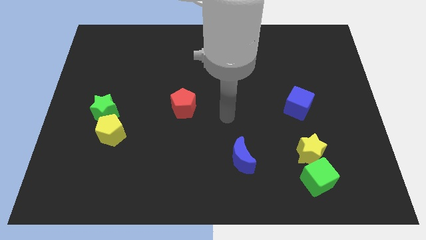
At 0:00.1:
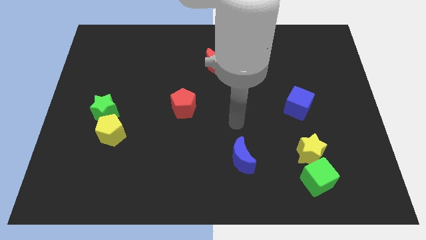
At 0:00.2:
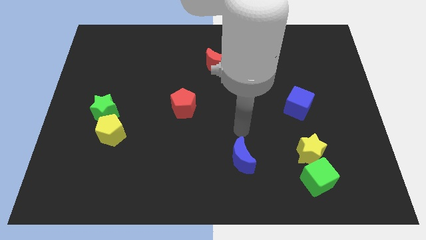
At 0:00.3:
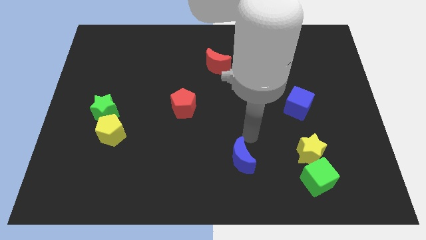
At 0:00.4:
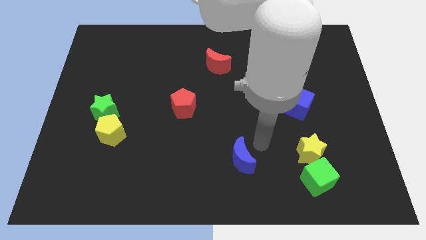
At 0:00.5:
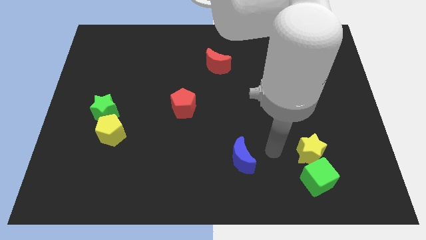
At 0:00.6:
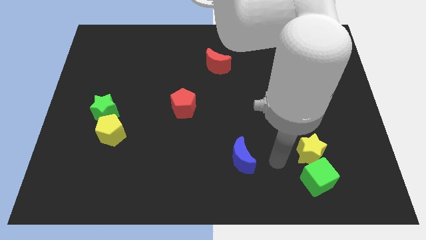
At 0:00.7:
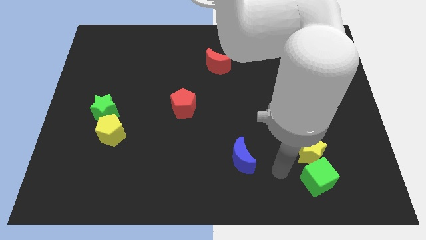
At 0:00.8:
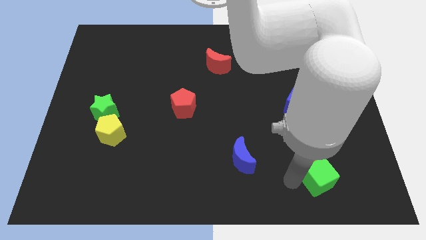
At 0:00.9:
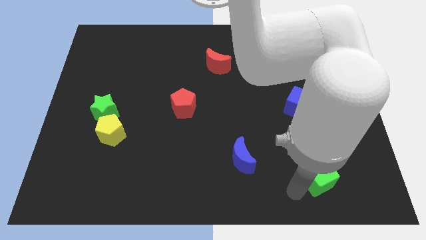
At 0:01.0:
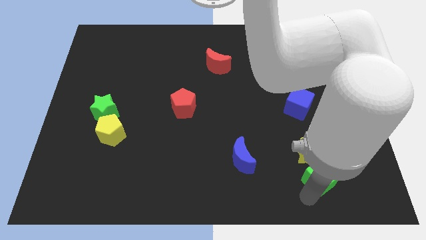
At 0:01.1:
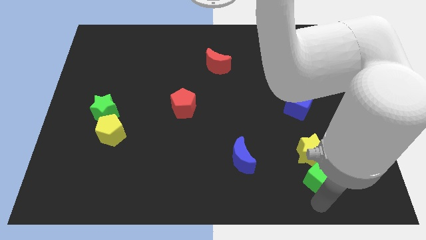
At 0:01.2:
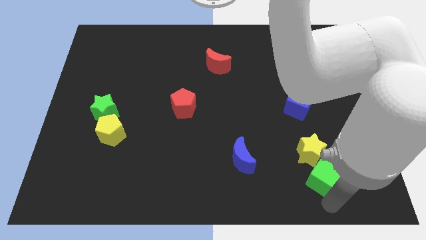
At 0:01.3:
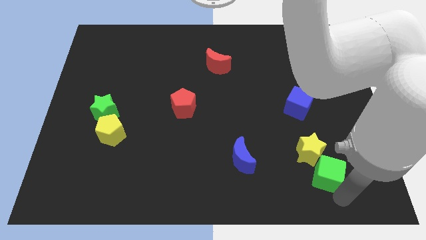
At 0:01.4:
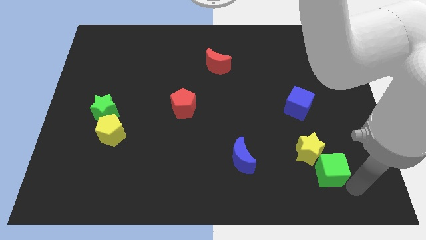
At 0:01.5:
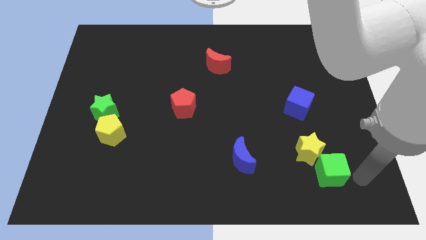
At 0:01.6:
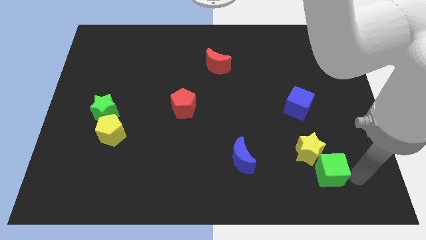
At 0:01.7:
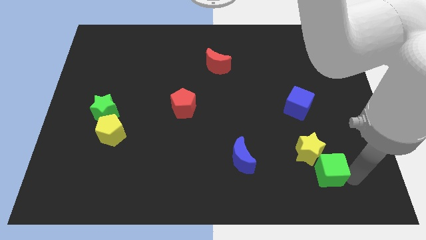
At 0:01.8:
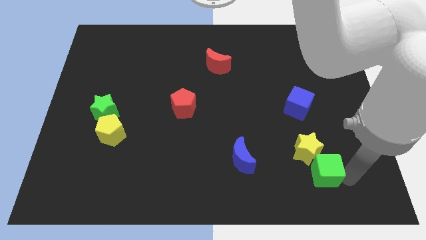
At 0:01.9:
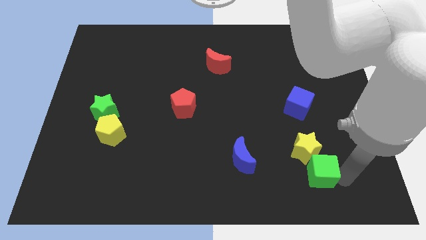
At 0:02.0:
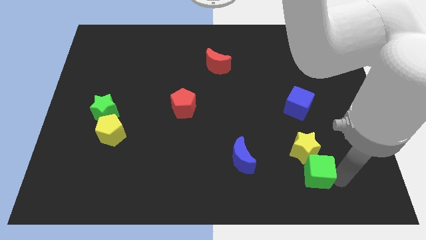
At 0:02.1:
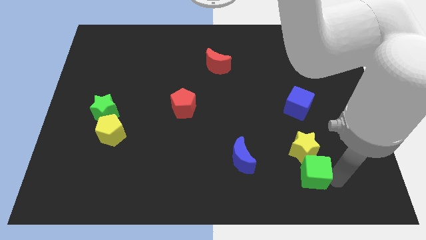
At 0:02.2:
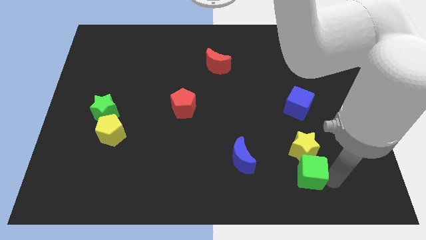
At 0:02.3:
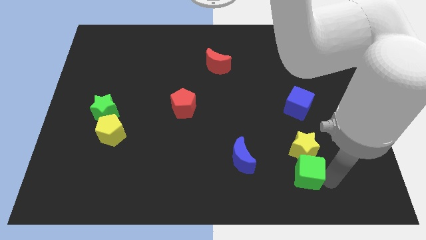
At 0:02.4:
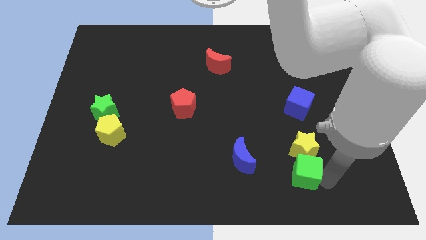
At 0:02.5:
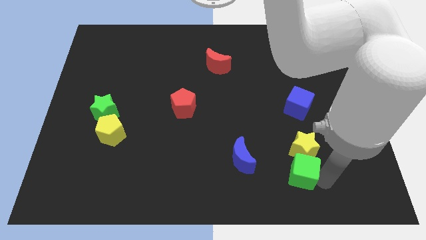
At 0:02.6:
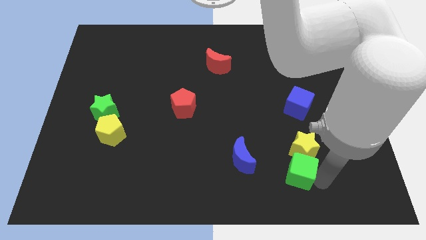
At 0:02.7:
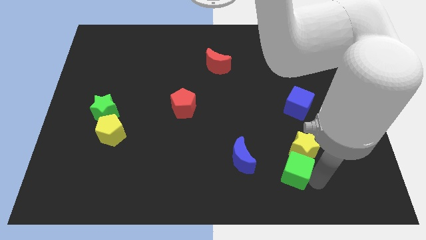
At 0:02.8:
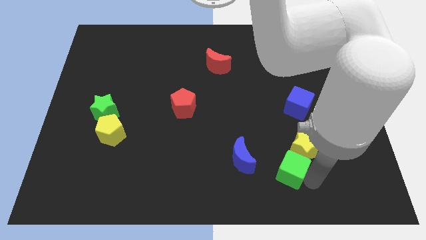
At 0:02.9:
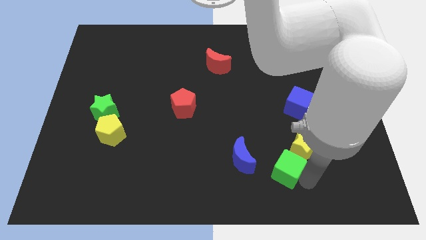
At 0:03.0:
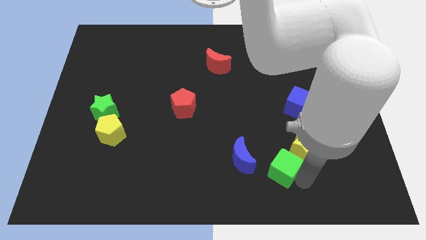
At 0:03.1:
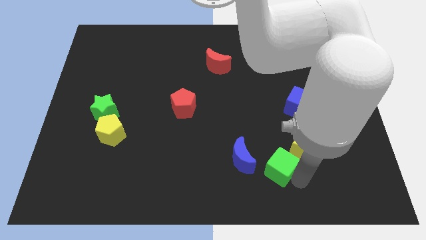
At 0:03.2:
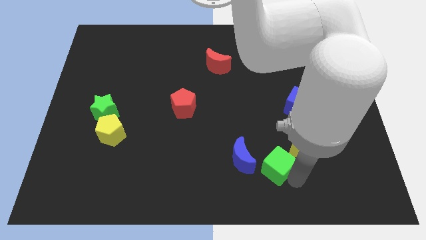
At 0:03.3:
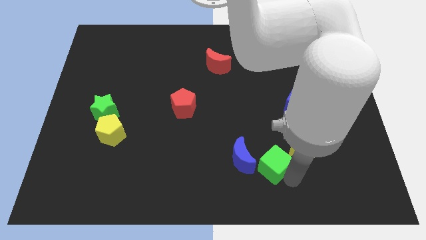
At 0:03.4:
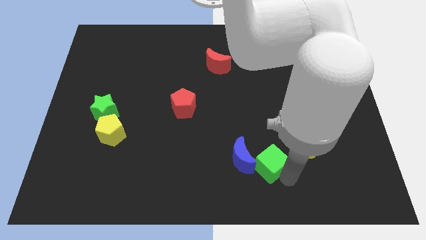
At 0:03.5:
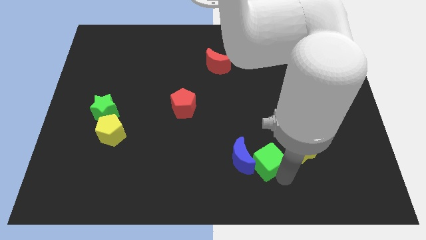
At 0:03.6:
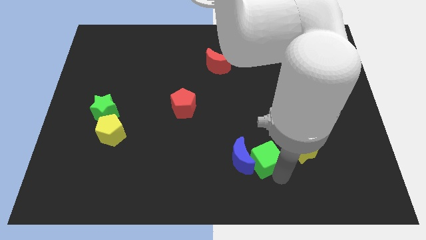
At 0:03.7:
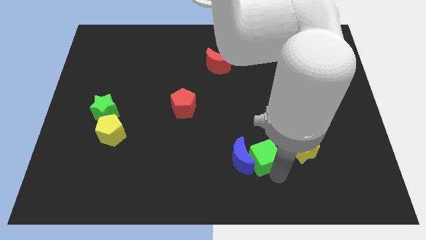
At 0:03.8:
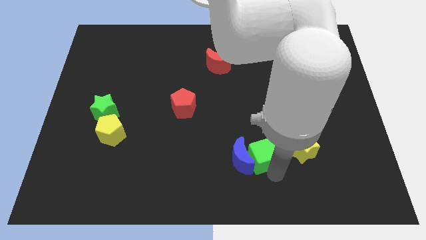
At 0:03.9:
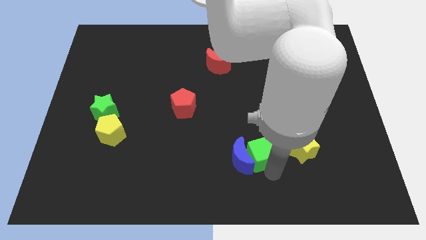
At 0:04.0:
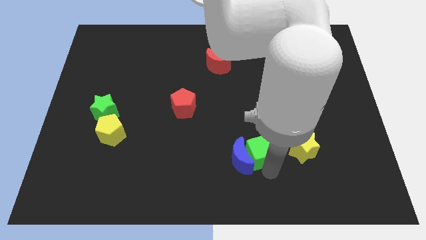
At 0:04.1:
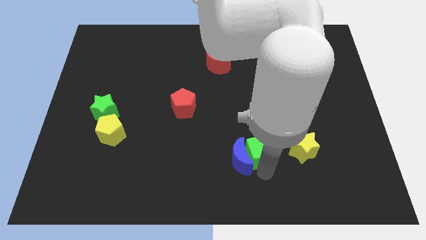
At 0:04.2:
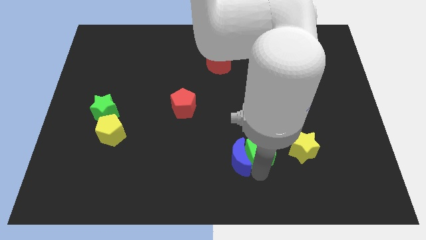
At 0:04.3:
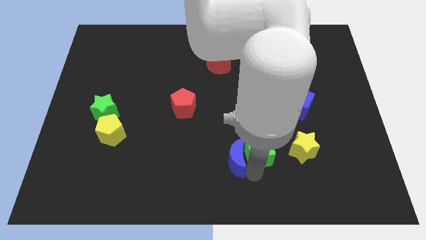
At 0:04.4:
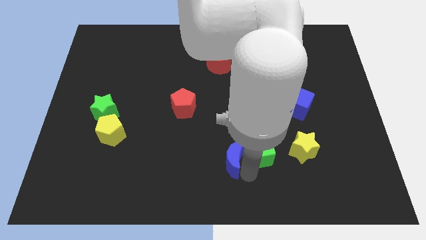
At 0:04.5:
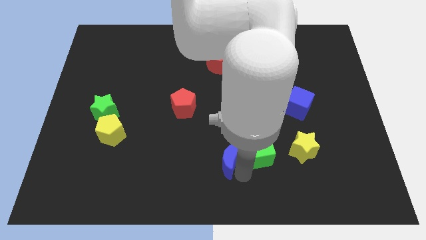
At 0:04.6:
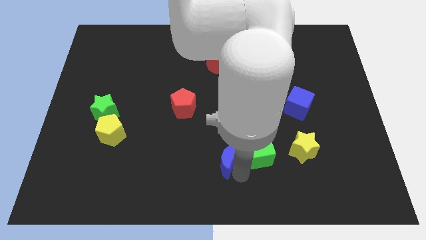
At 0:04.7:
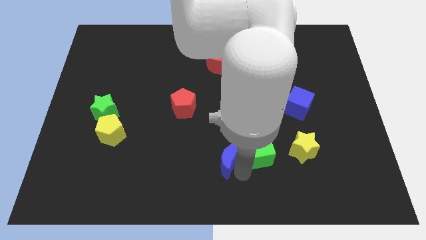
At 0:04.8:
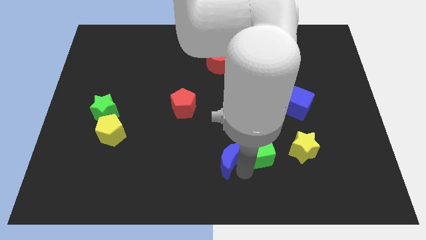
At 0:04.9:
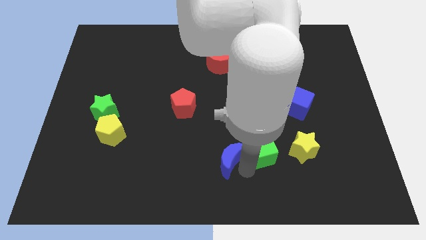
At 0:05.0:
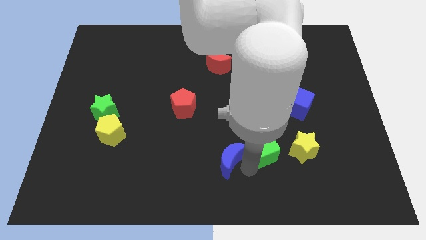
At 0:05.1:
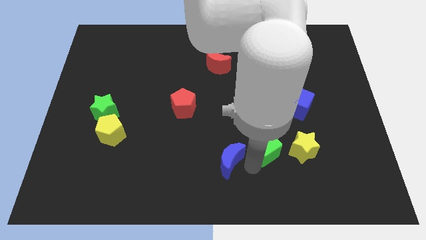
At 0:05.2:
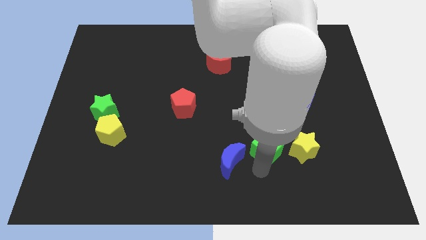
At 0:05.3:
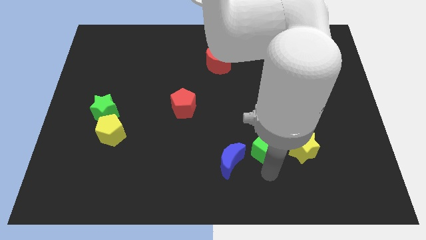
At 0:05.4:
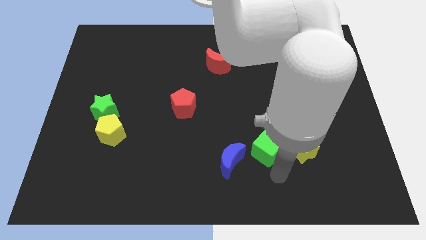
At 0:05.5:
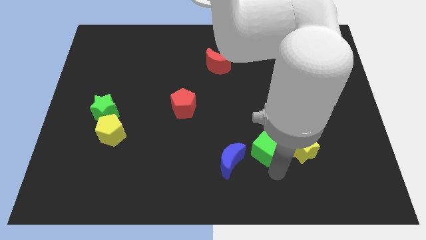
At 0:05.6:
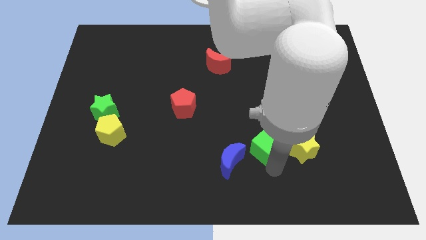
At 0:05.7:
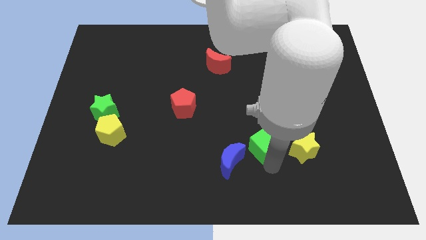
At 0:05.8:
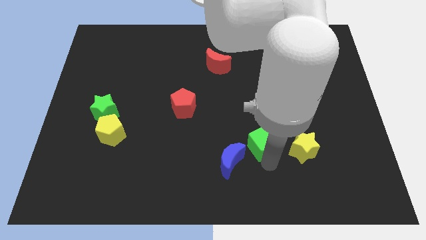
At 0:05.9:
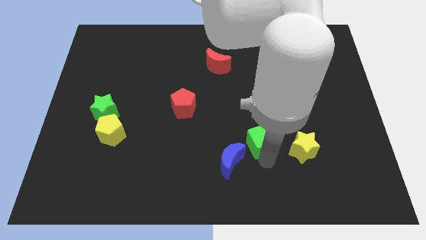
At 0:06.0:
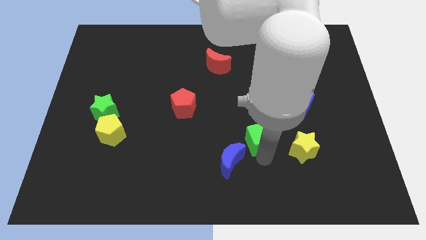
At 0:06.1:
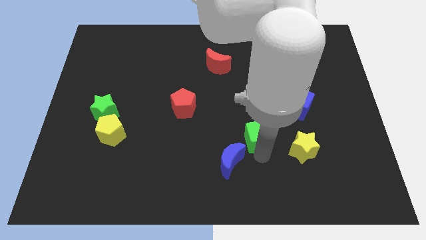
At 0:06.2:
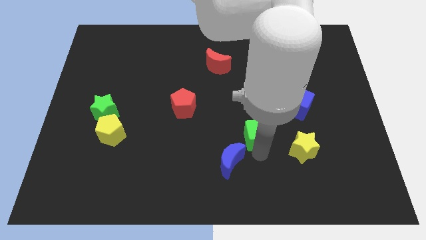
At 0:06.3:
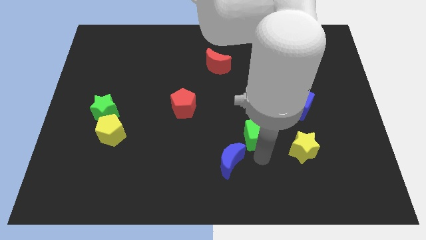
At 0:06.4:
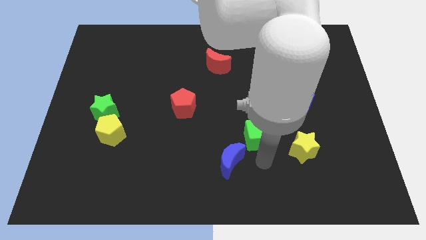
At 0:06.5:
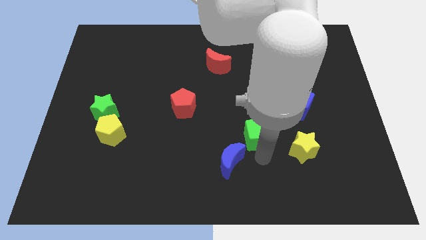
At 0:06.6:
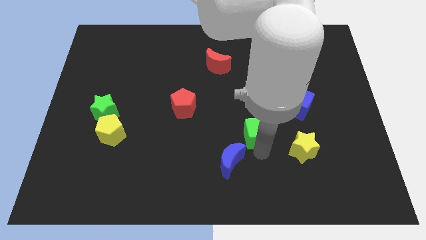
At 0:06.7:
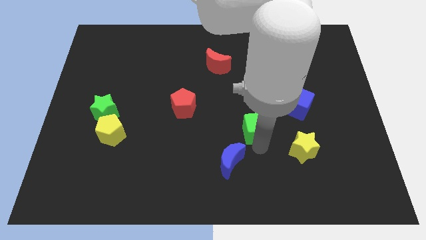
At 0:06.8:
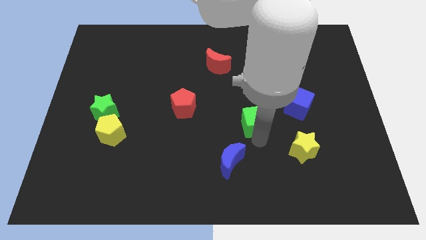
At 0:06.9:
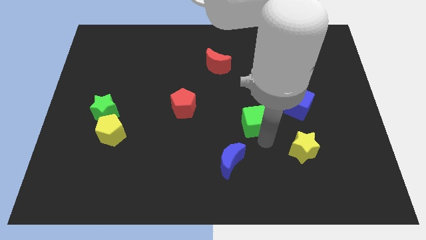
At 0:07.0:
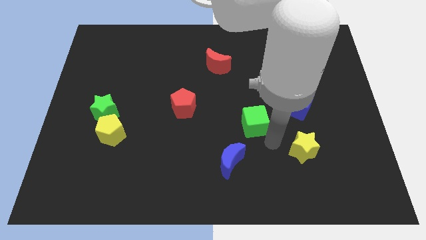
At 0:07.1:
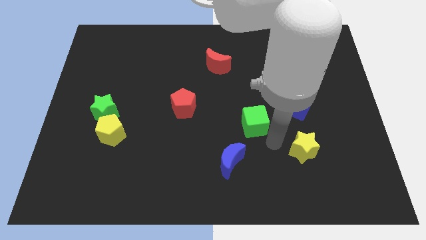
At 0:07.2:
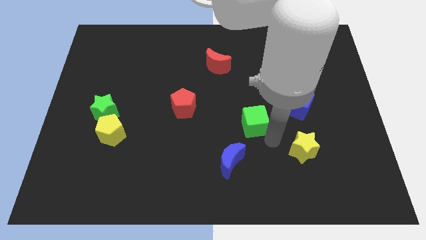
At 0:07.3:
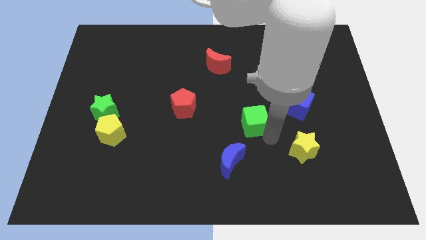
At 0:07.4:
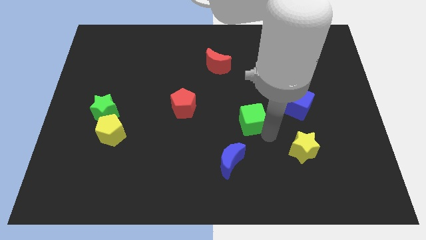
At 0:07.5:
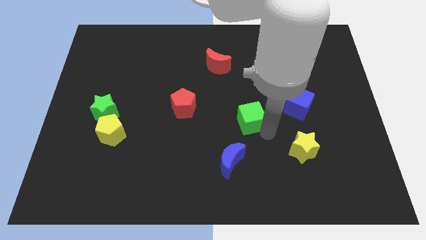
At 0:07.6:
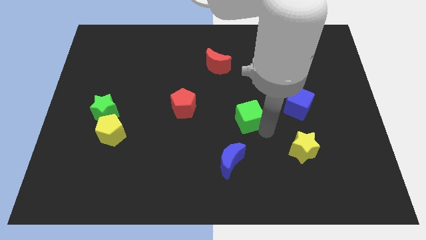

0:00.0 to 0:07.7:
slide the green cube upwards and left

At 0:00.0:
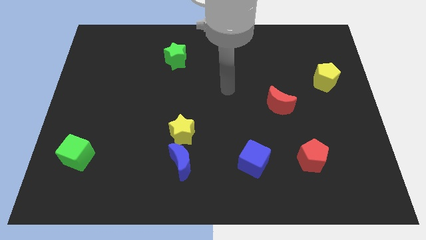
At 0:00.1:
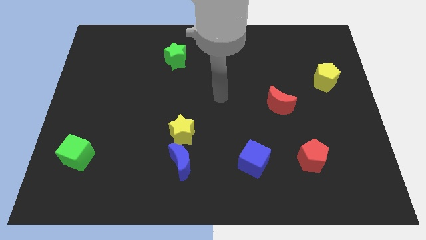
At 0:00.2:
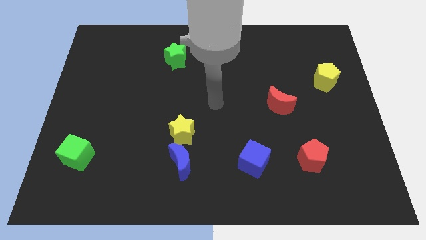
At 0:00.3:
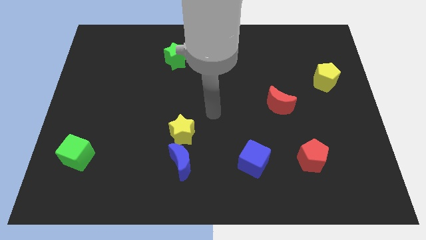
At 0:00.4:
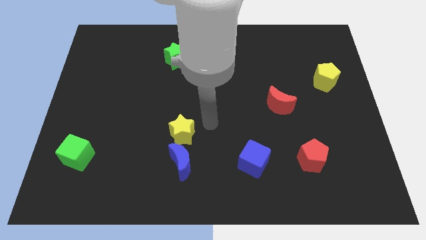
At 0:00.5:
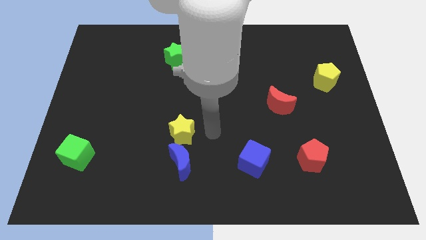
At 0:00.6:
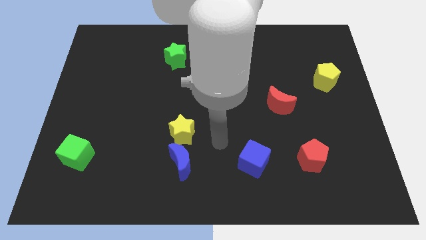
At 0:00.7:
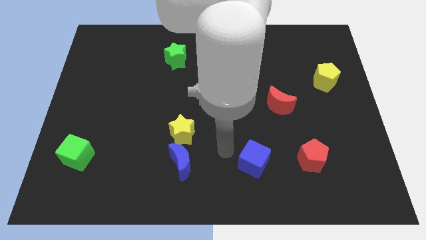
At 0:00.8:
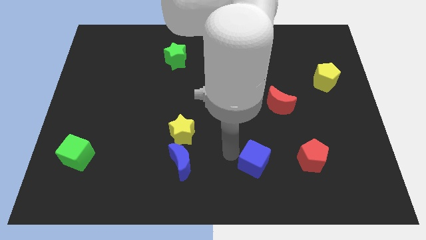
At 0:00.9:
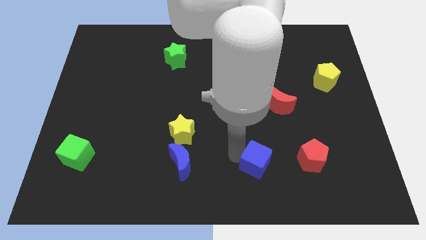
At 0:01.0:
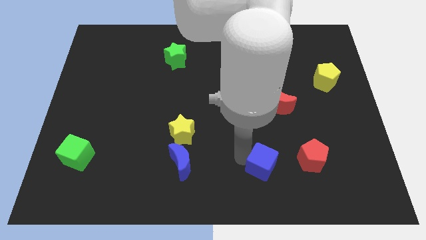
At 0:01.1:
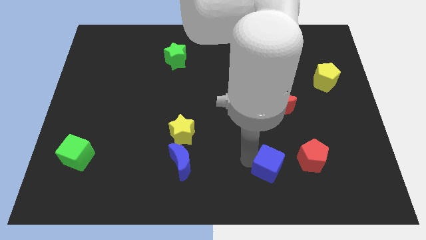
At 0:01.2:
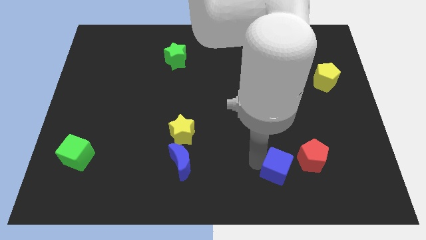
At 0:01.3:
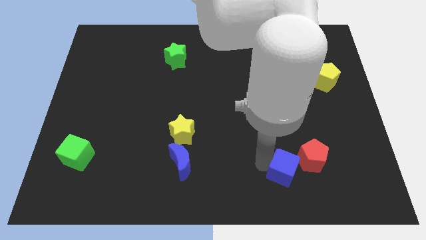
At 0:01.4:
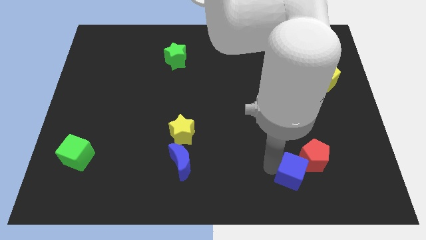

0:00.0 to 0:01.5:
slightly move the blue cube right
